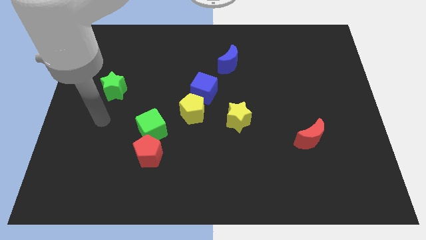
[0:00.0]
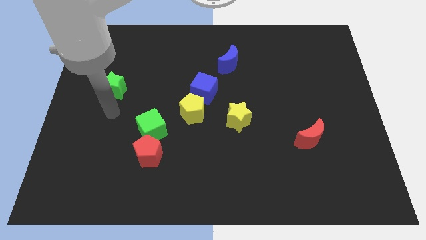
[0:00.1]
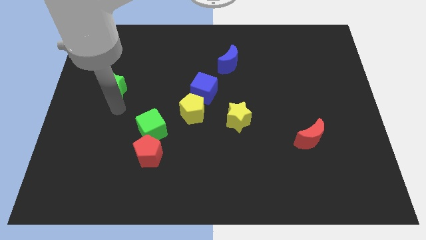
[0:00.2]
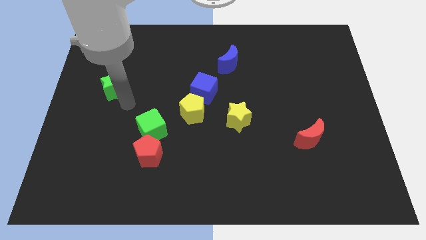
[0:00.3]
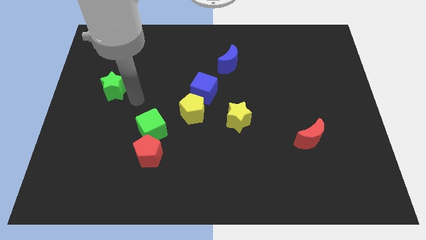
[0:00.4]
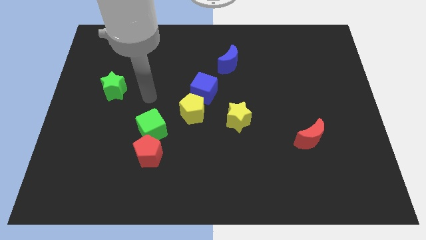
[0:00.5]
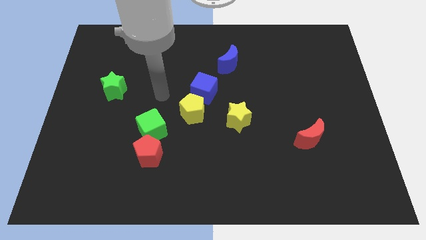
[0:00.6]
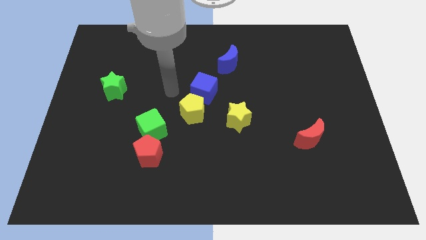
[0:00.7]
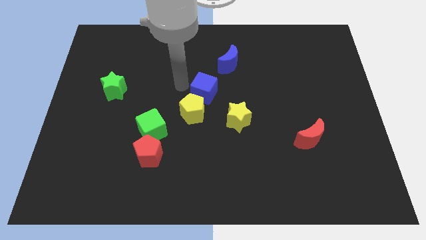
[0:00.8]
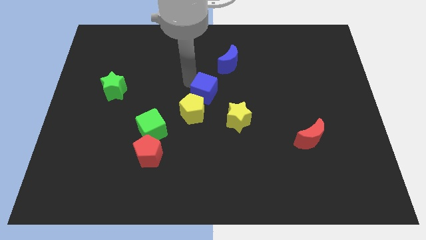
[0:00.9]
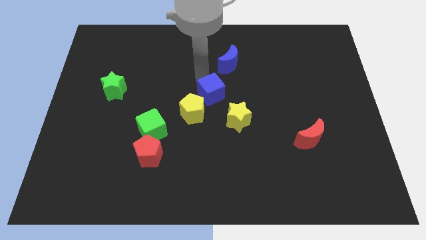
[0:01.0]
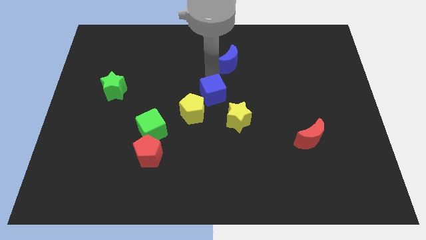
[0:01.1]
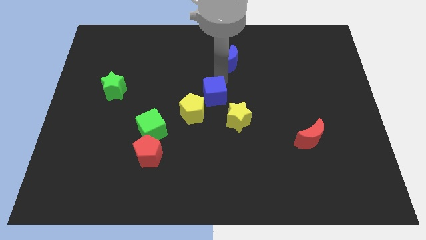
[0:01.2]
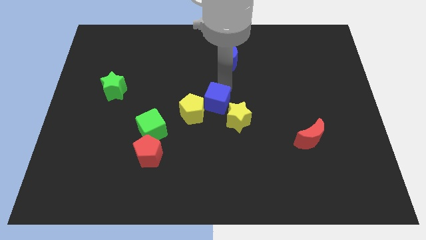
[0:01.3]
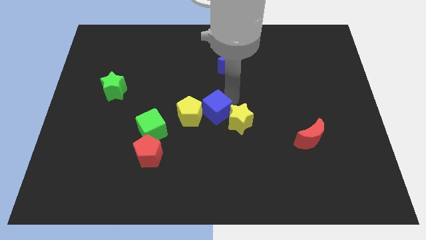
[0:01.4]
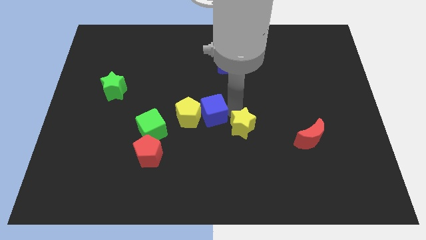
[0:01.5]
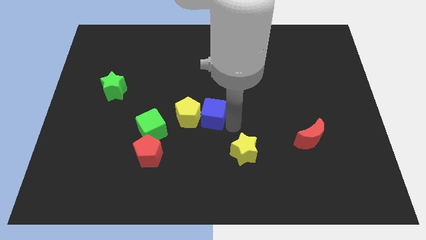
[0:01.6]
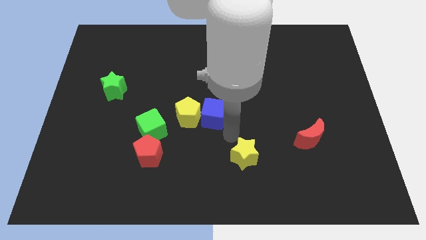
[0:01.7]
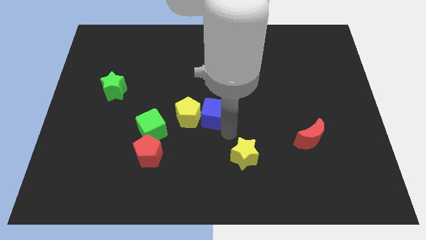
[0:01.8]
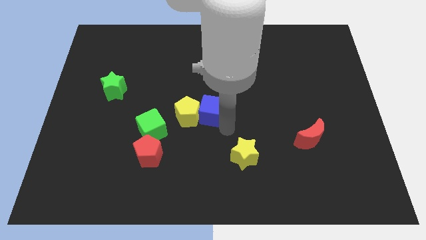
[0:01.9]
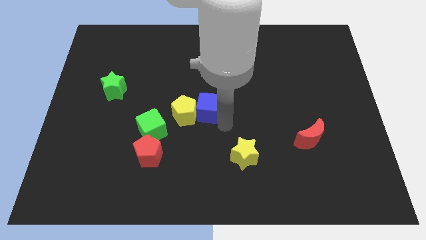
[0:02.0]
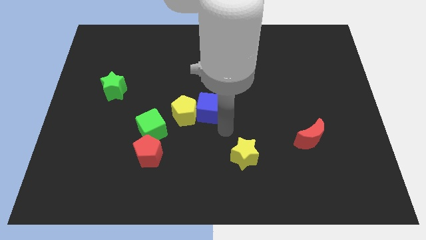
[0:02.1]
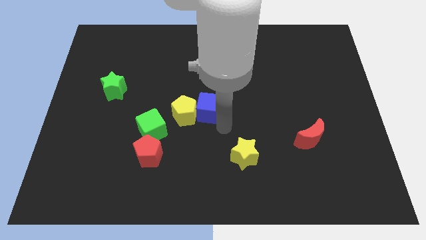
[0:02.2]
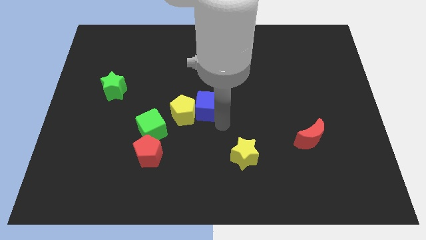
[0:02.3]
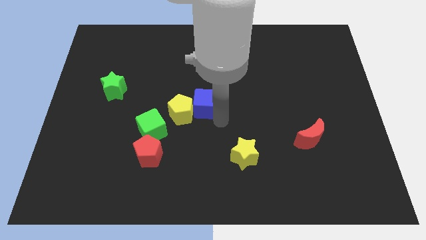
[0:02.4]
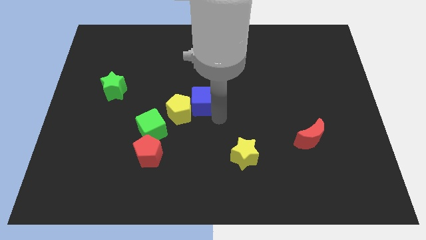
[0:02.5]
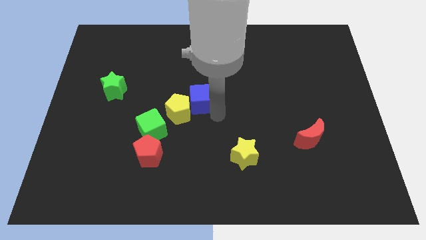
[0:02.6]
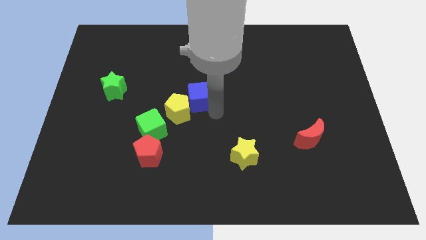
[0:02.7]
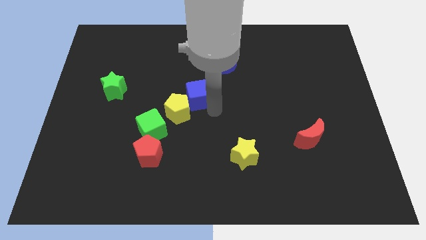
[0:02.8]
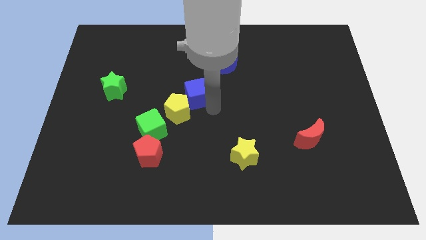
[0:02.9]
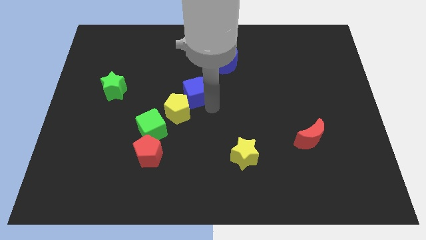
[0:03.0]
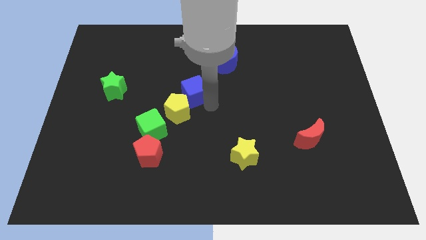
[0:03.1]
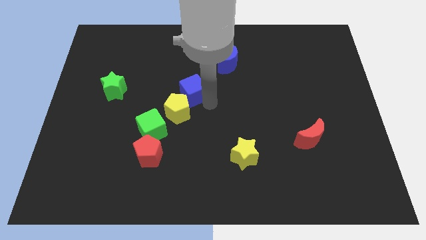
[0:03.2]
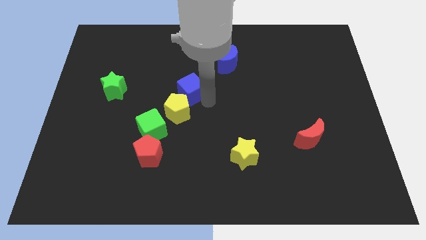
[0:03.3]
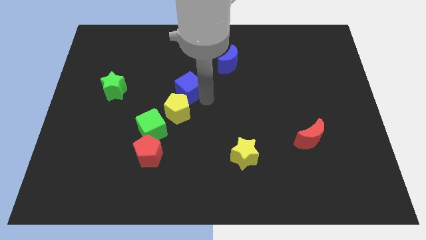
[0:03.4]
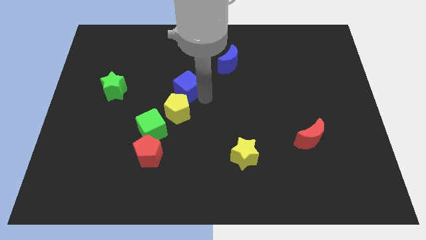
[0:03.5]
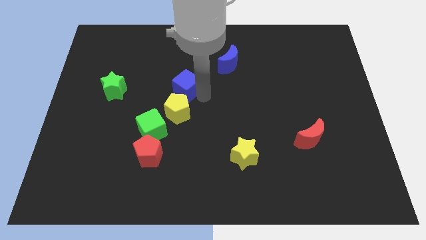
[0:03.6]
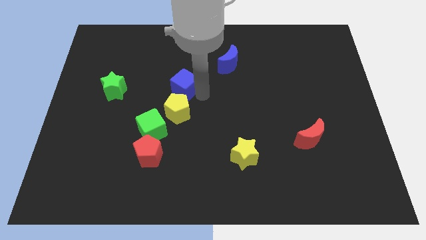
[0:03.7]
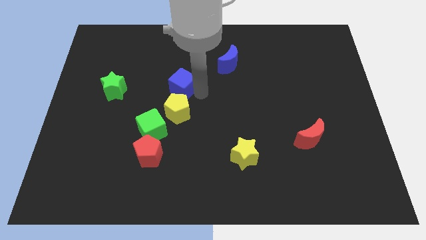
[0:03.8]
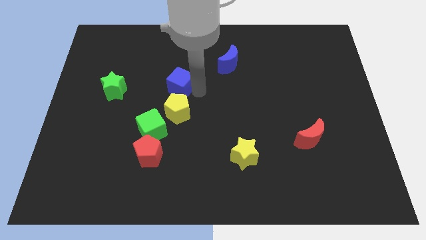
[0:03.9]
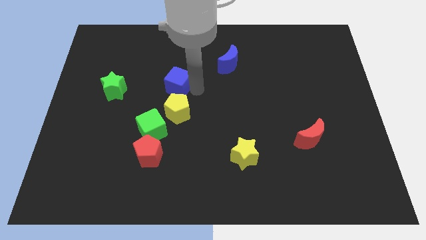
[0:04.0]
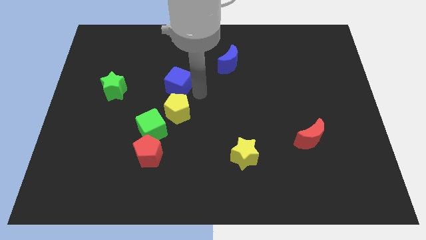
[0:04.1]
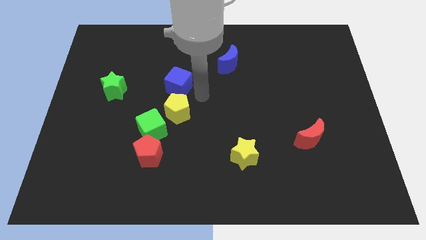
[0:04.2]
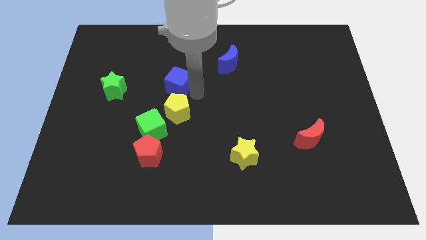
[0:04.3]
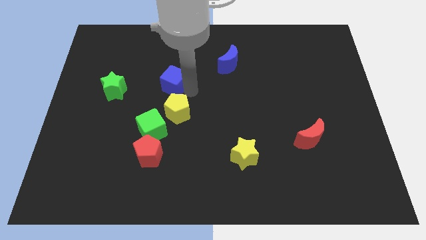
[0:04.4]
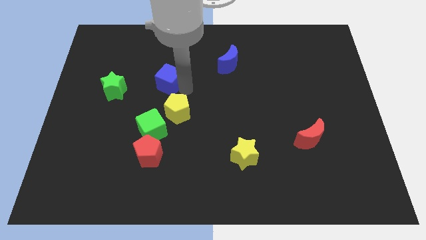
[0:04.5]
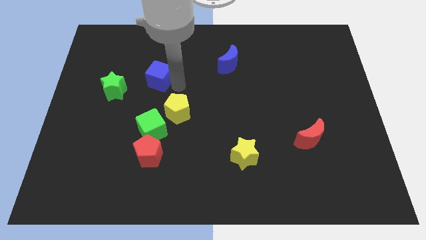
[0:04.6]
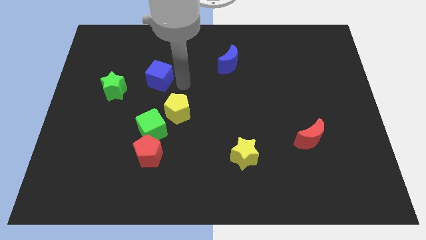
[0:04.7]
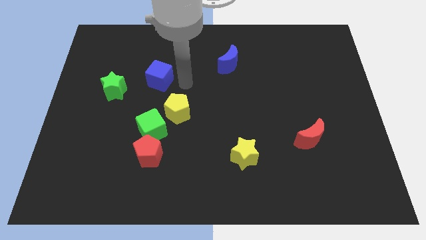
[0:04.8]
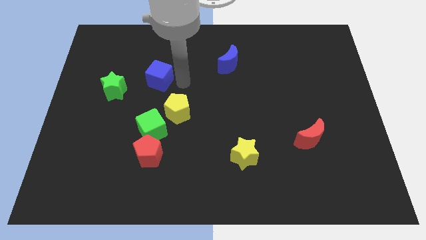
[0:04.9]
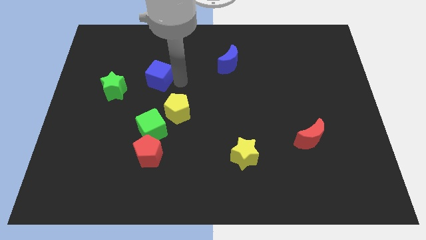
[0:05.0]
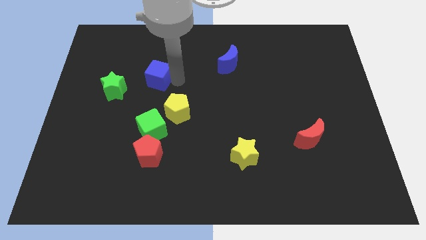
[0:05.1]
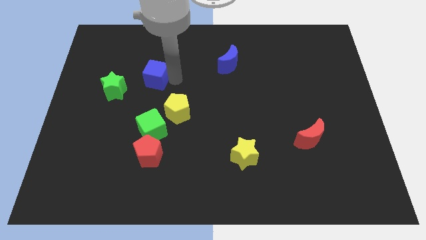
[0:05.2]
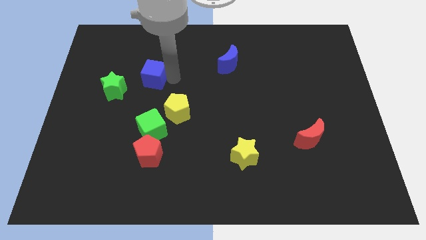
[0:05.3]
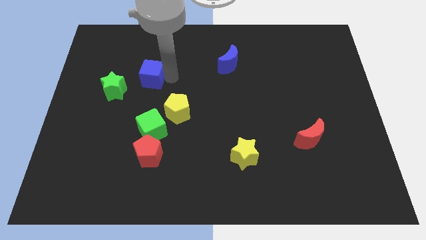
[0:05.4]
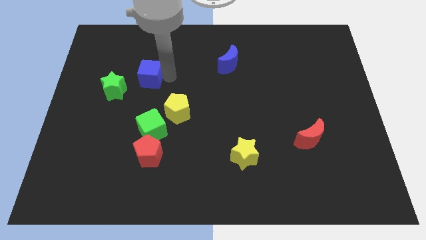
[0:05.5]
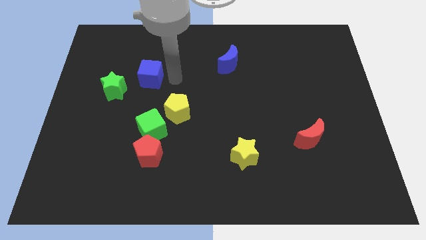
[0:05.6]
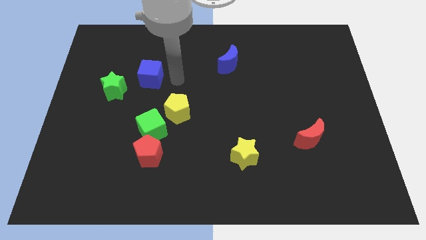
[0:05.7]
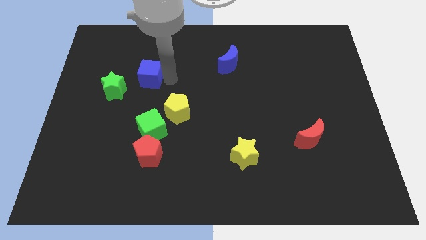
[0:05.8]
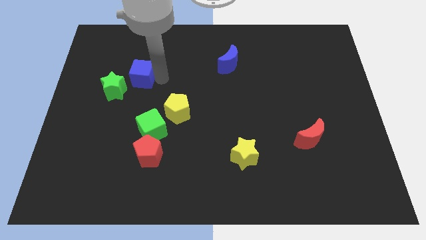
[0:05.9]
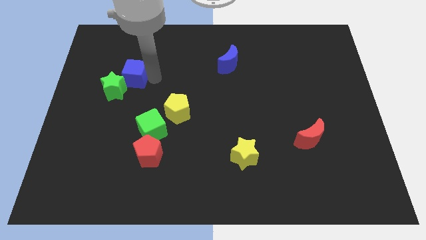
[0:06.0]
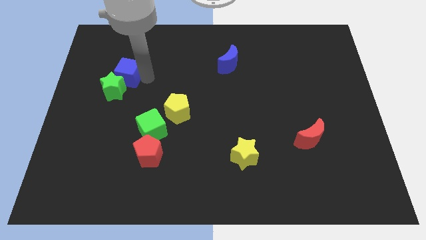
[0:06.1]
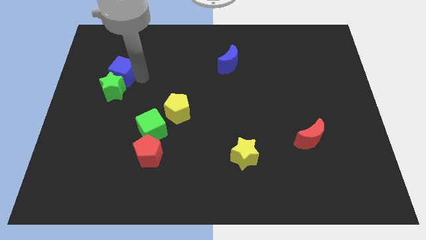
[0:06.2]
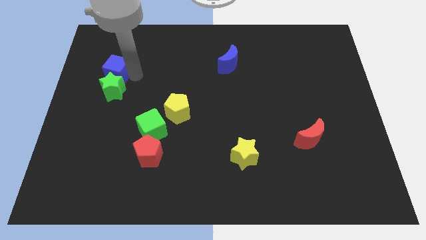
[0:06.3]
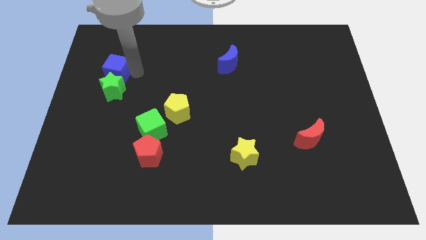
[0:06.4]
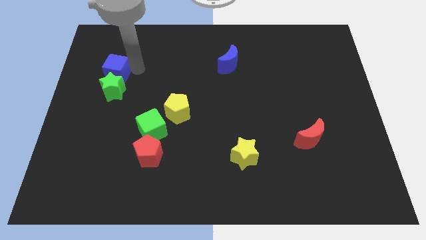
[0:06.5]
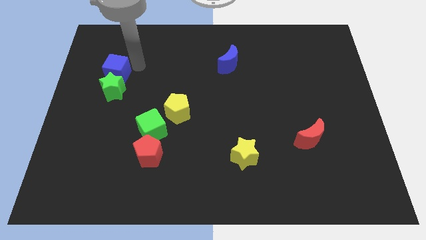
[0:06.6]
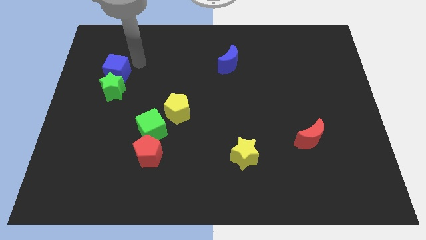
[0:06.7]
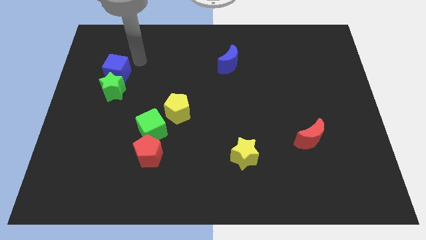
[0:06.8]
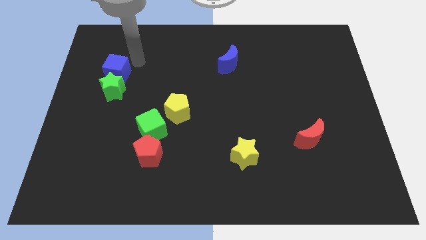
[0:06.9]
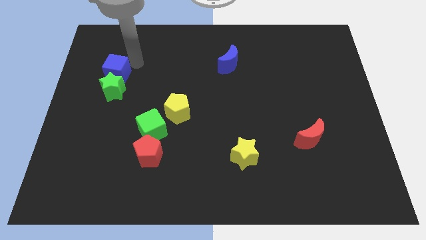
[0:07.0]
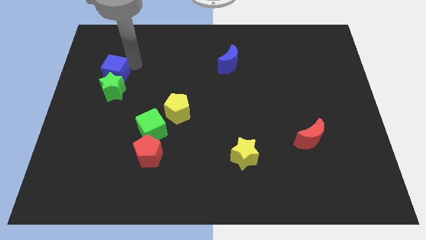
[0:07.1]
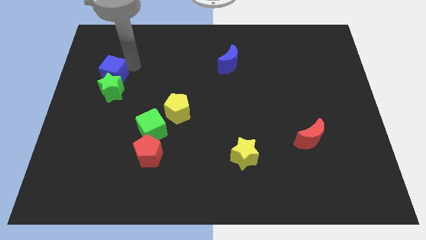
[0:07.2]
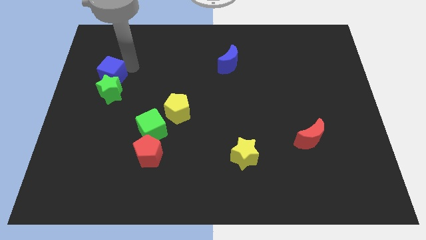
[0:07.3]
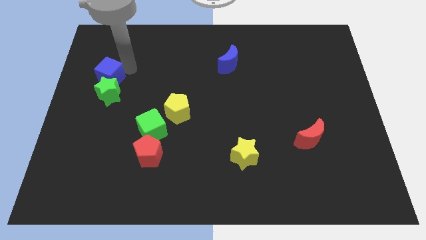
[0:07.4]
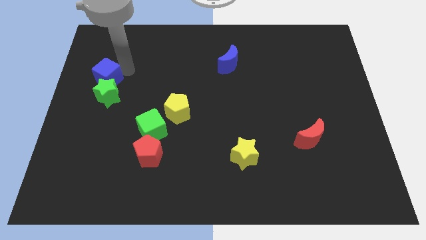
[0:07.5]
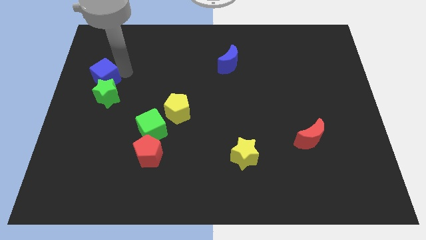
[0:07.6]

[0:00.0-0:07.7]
slide the blue cube to the left side of the board

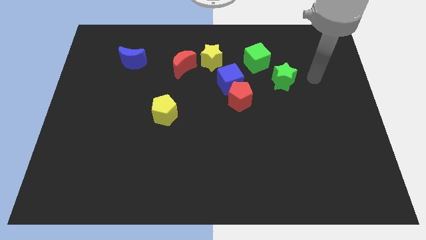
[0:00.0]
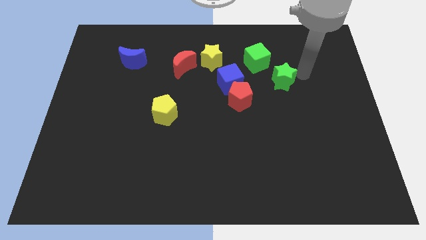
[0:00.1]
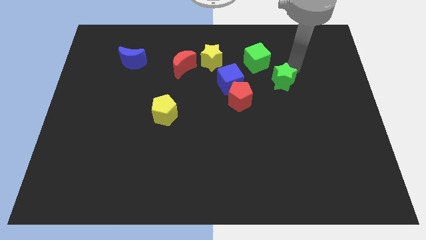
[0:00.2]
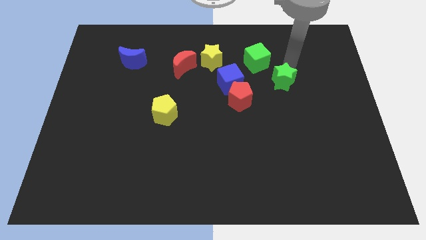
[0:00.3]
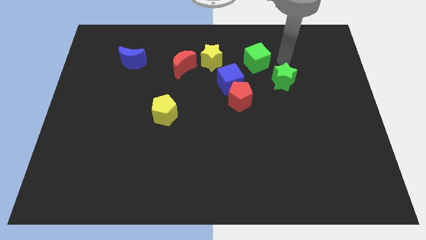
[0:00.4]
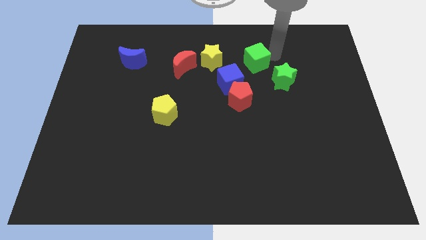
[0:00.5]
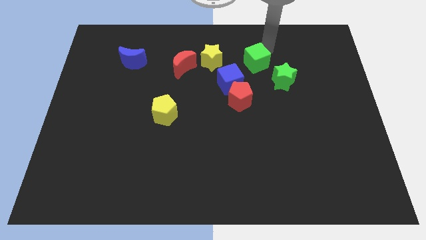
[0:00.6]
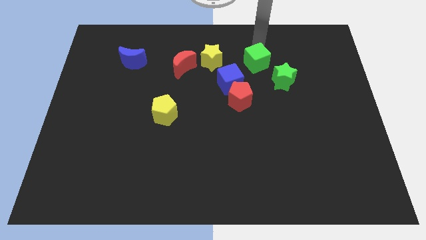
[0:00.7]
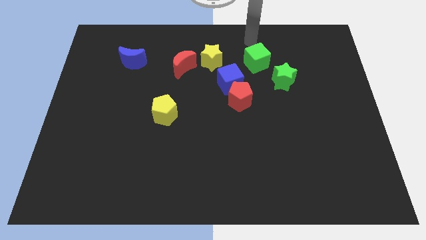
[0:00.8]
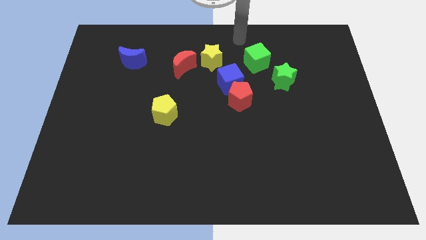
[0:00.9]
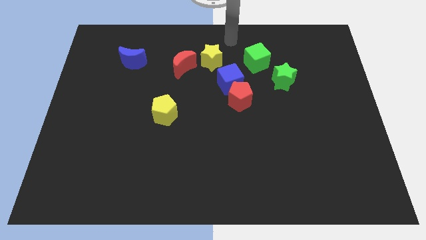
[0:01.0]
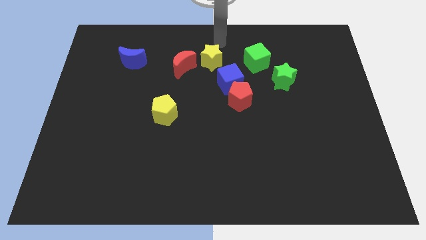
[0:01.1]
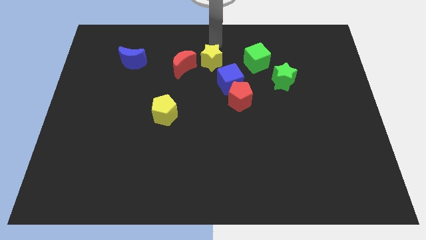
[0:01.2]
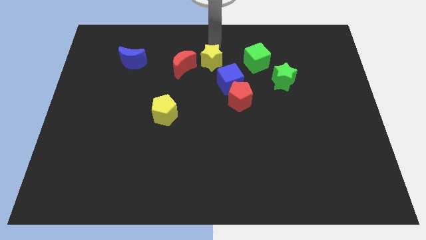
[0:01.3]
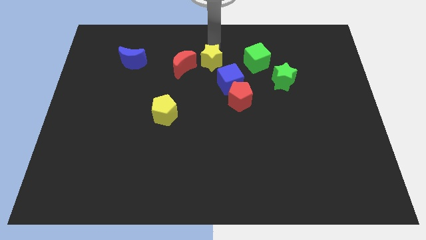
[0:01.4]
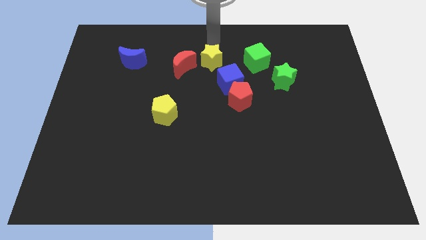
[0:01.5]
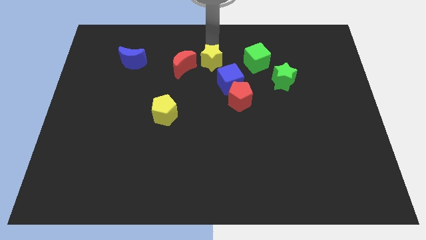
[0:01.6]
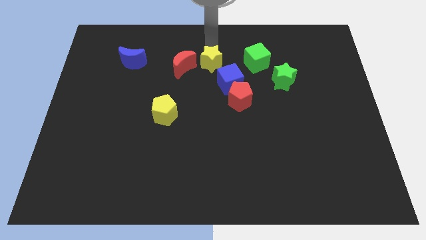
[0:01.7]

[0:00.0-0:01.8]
put the yellow star to the center
